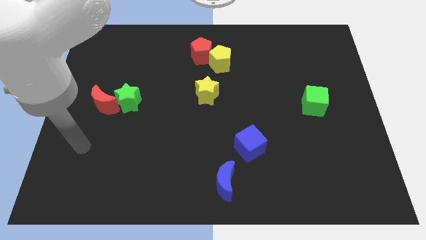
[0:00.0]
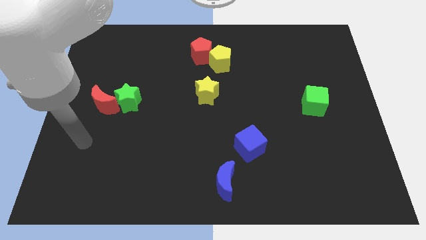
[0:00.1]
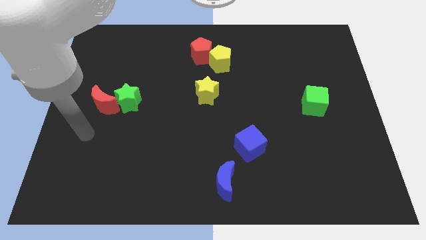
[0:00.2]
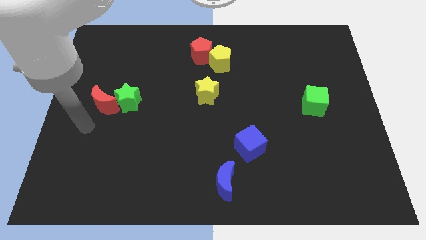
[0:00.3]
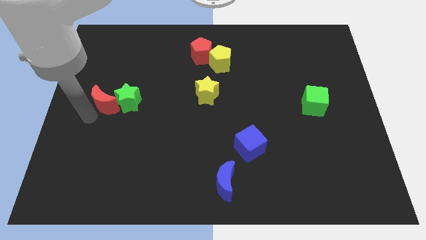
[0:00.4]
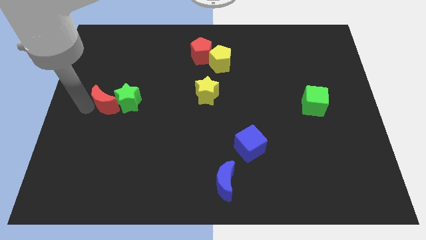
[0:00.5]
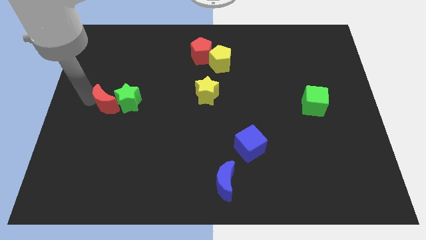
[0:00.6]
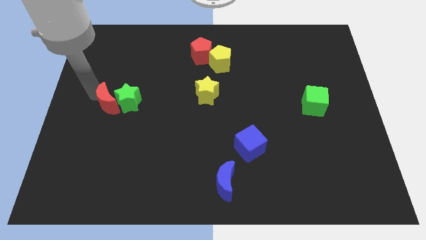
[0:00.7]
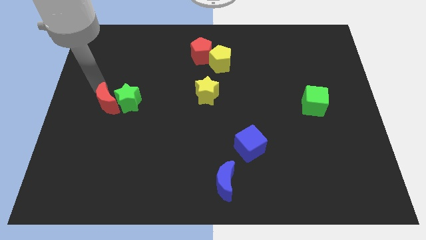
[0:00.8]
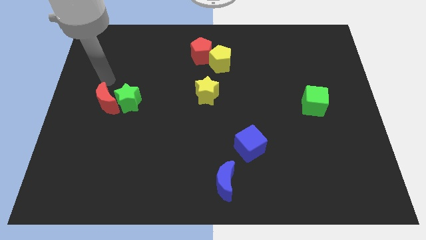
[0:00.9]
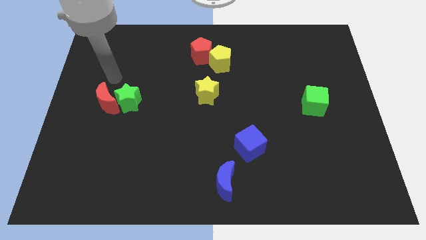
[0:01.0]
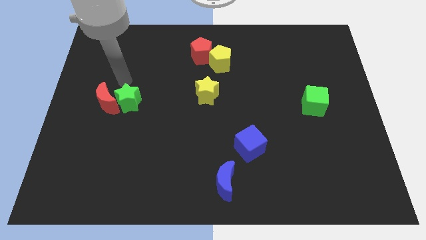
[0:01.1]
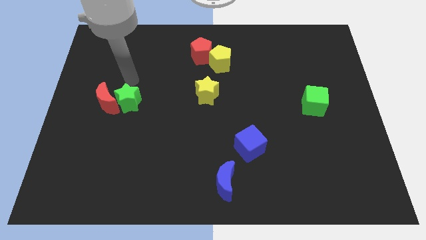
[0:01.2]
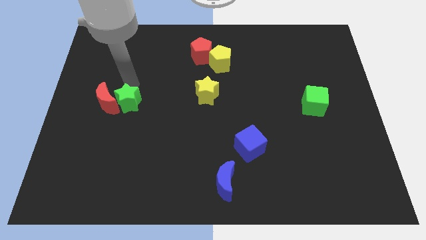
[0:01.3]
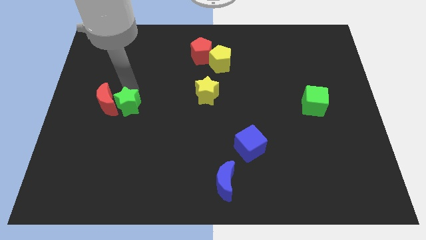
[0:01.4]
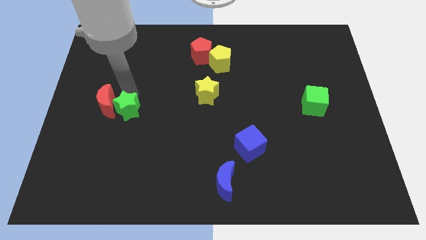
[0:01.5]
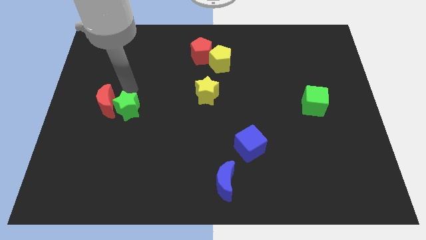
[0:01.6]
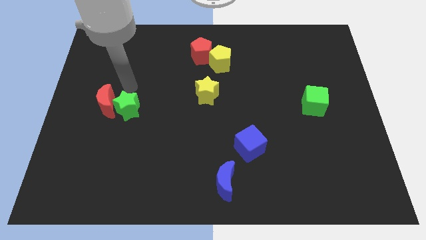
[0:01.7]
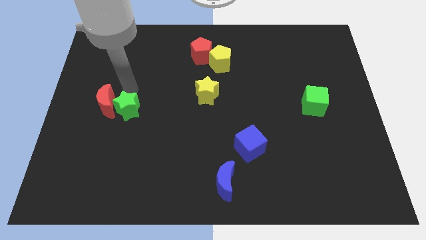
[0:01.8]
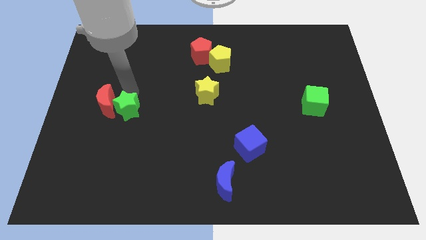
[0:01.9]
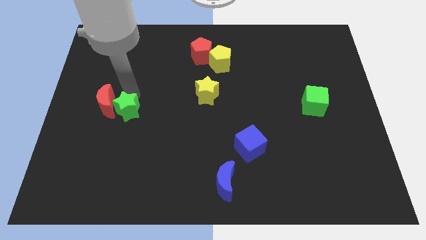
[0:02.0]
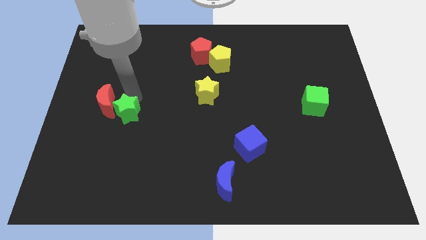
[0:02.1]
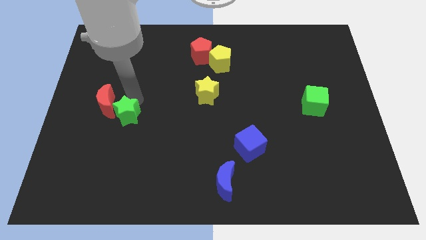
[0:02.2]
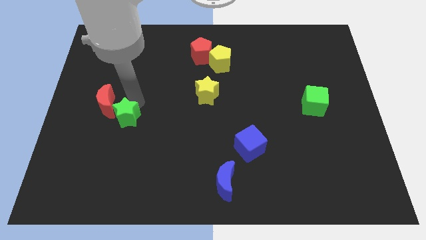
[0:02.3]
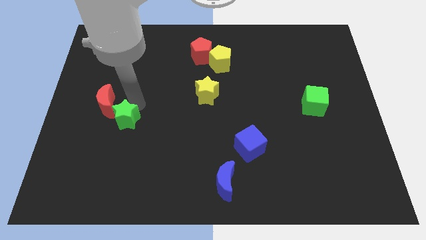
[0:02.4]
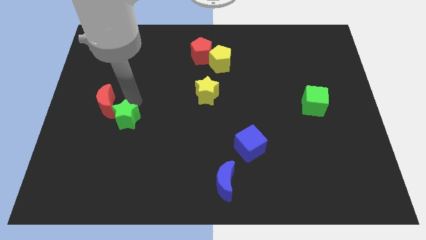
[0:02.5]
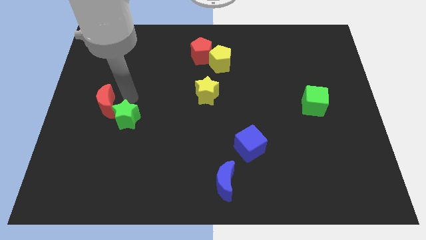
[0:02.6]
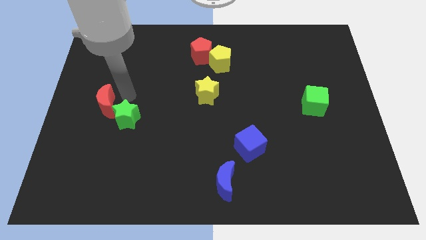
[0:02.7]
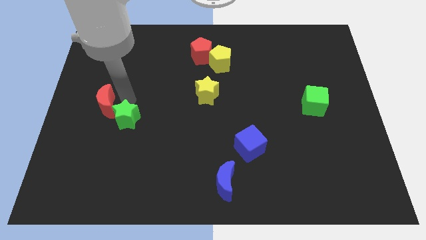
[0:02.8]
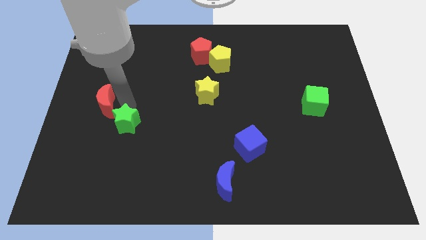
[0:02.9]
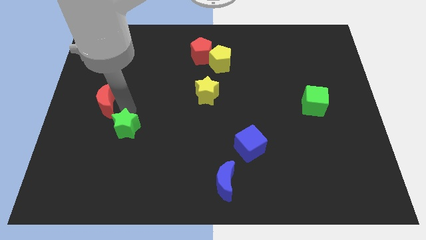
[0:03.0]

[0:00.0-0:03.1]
slightly move the green star down

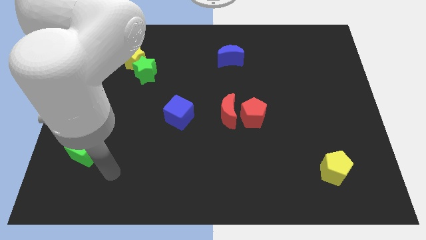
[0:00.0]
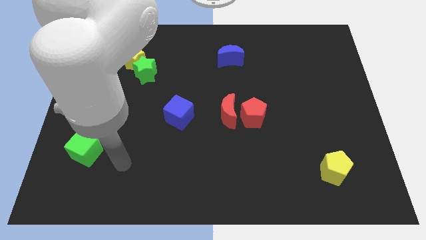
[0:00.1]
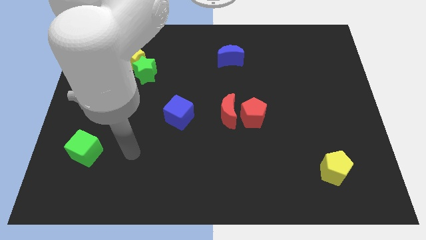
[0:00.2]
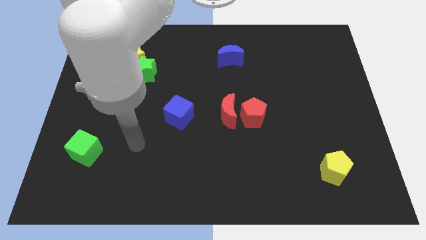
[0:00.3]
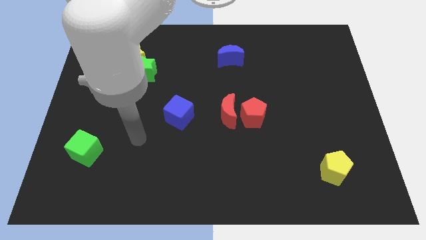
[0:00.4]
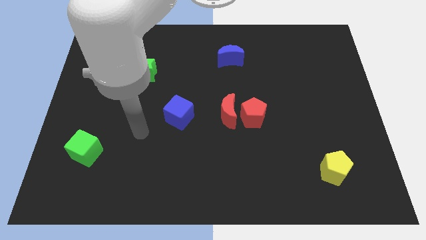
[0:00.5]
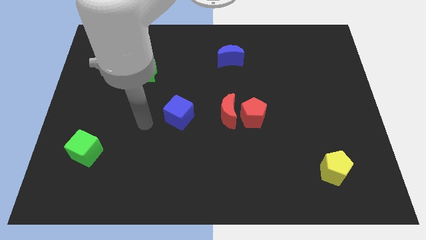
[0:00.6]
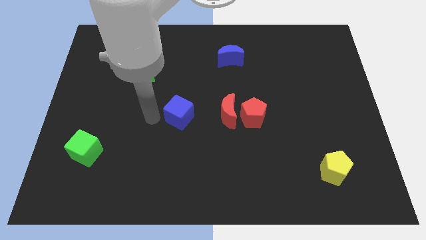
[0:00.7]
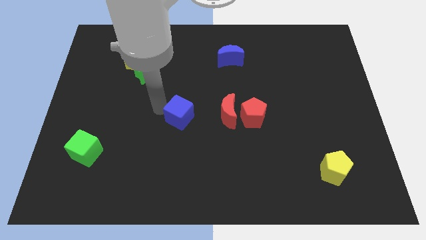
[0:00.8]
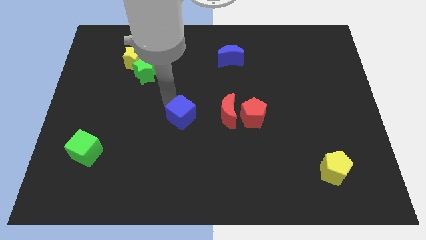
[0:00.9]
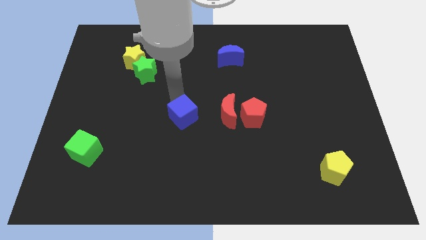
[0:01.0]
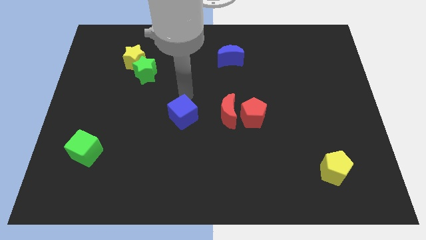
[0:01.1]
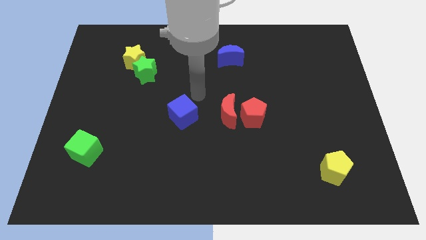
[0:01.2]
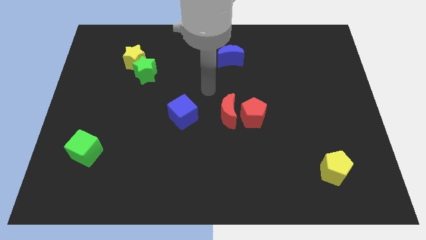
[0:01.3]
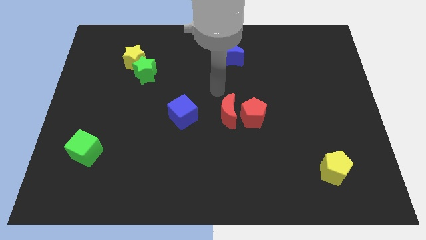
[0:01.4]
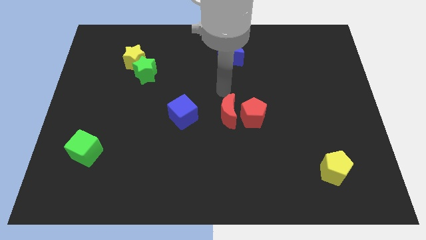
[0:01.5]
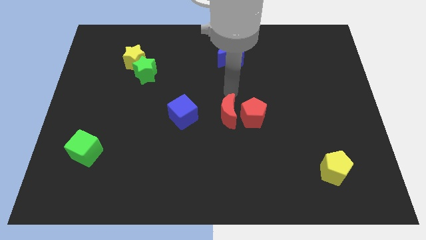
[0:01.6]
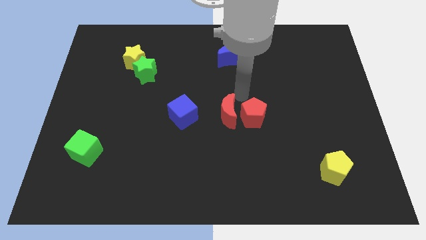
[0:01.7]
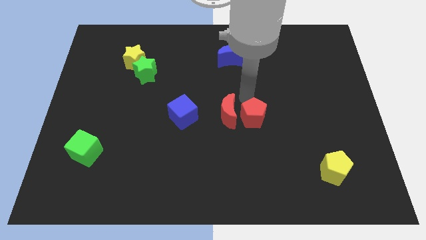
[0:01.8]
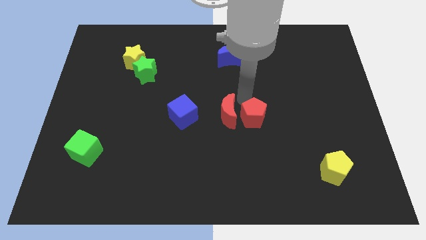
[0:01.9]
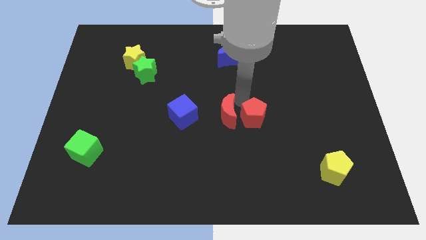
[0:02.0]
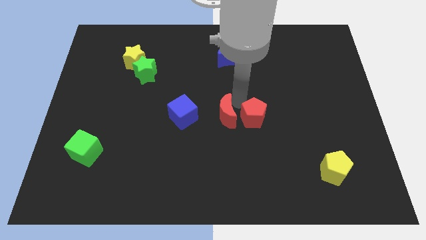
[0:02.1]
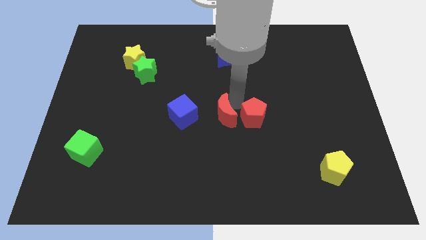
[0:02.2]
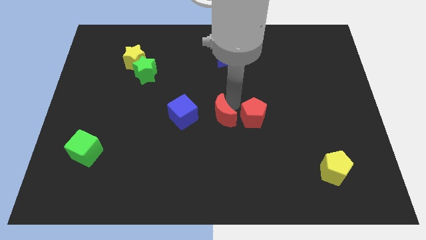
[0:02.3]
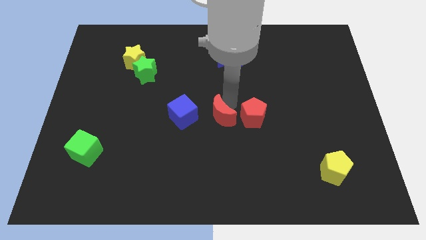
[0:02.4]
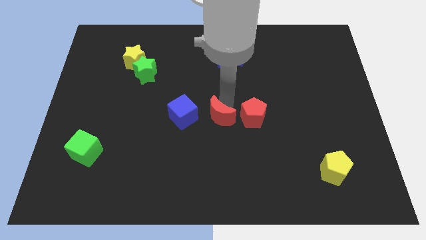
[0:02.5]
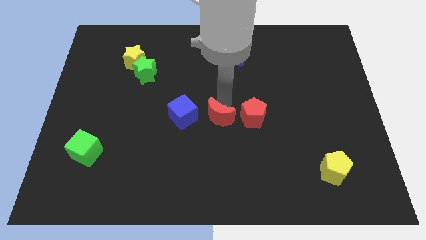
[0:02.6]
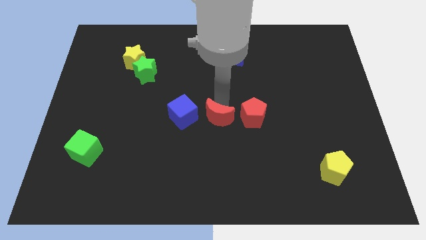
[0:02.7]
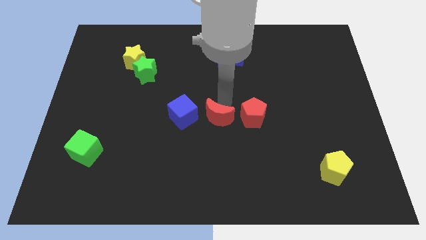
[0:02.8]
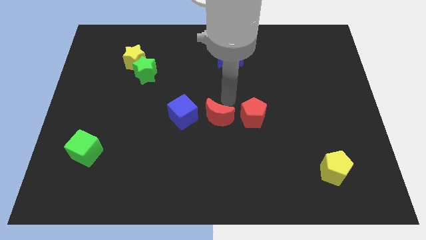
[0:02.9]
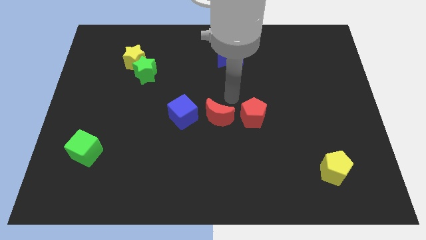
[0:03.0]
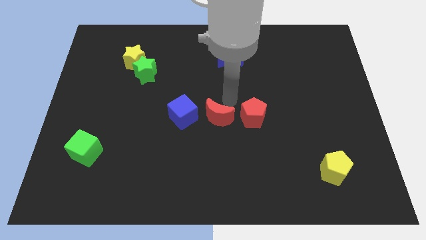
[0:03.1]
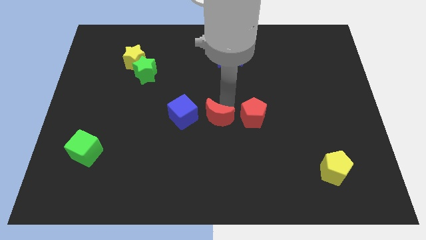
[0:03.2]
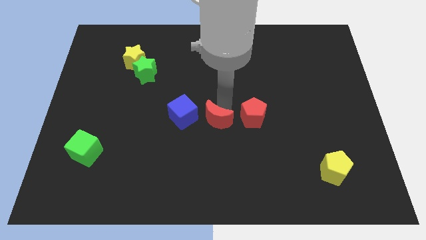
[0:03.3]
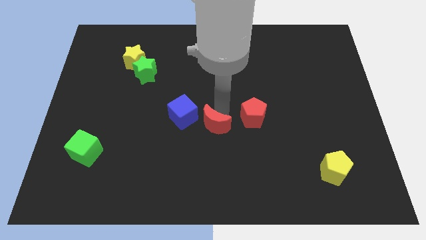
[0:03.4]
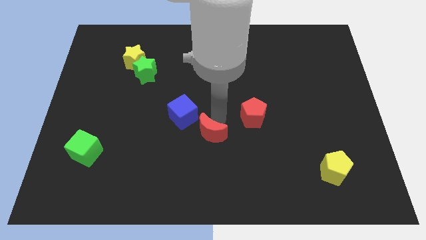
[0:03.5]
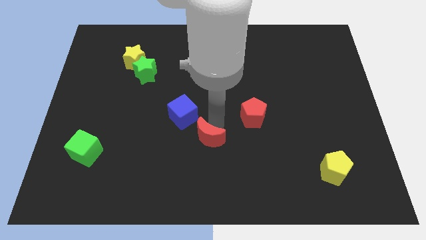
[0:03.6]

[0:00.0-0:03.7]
slide the red moon down and to the left diagonally a little

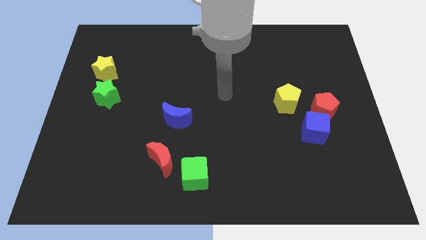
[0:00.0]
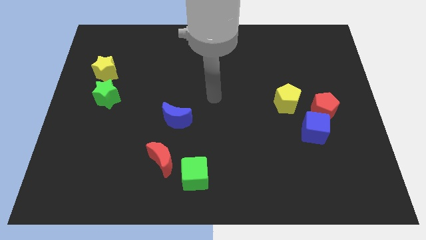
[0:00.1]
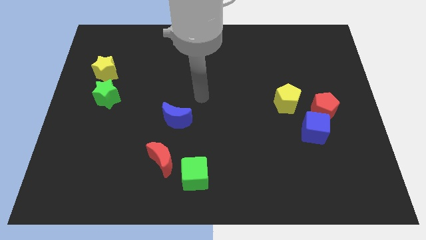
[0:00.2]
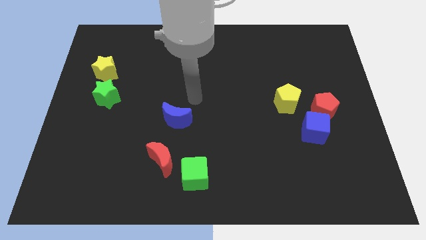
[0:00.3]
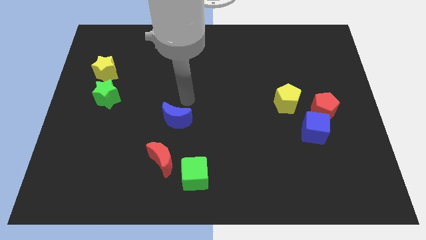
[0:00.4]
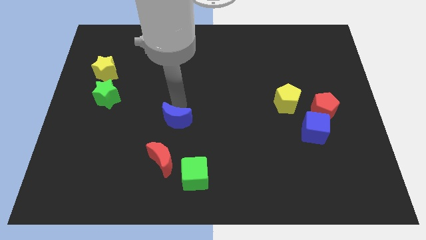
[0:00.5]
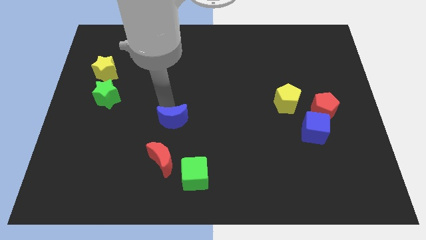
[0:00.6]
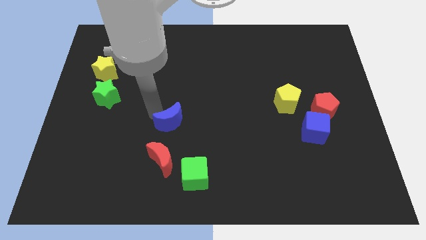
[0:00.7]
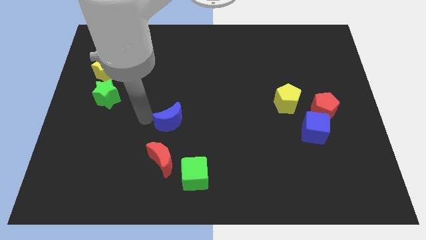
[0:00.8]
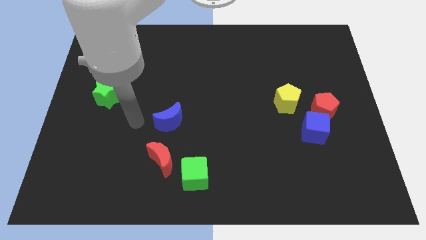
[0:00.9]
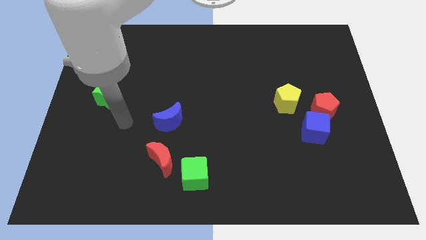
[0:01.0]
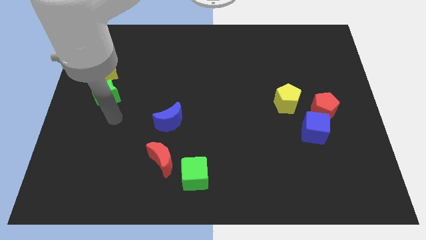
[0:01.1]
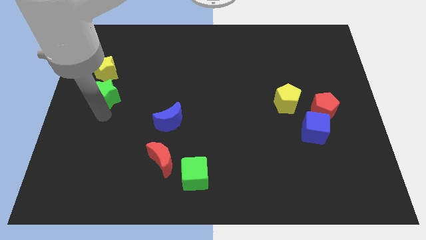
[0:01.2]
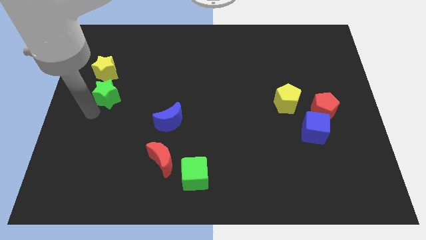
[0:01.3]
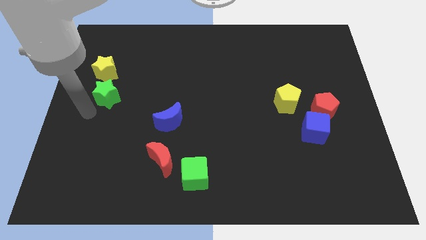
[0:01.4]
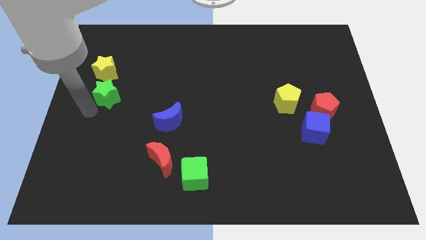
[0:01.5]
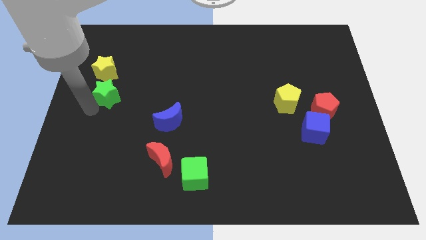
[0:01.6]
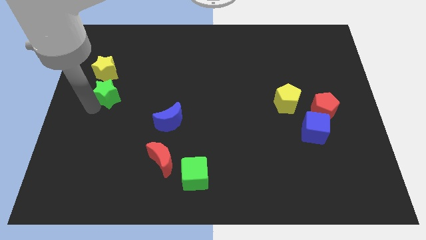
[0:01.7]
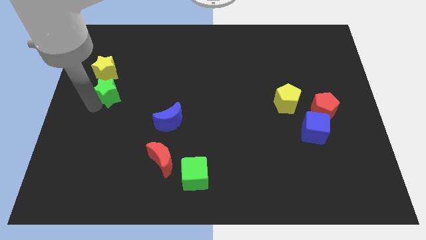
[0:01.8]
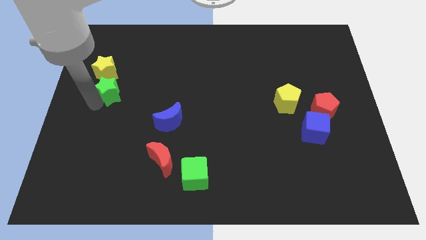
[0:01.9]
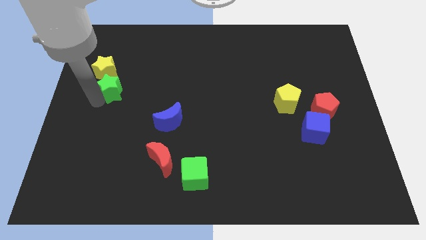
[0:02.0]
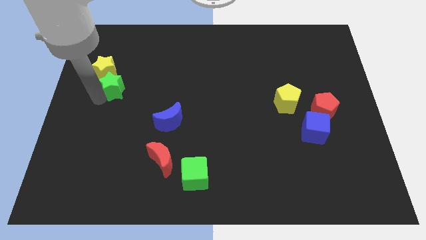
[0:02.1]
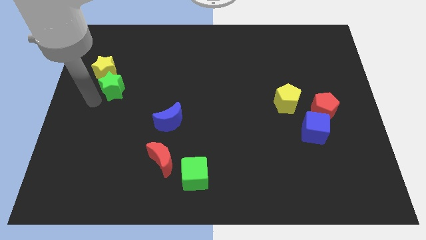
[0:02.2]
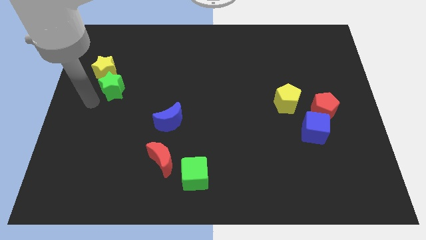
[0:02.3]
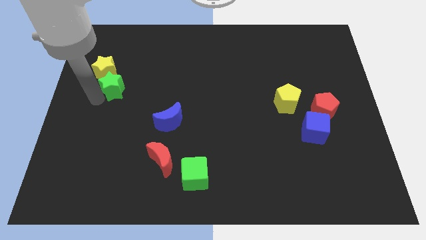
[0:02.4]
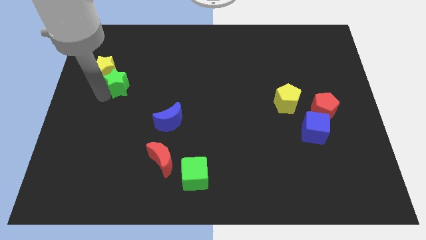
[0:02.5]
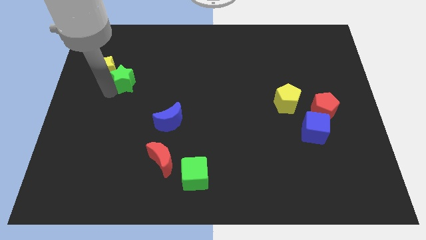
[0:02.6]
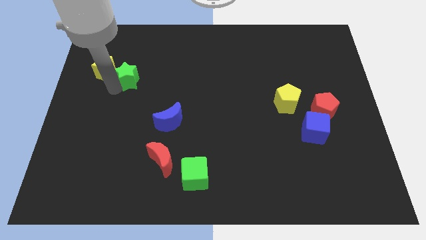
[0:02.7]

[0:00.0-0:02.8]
move the green star diagonally up and to the right a little bit
